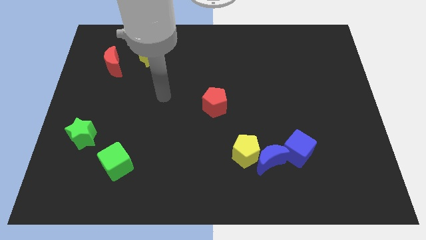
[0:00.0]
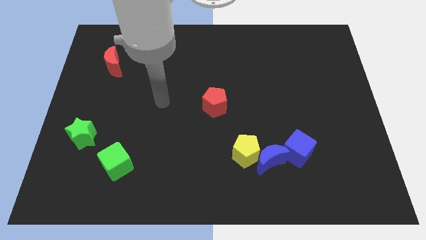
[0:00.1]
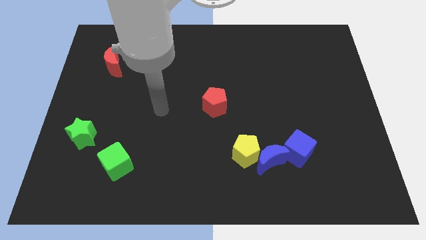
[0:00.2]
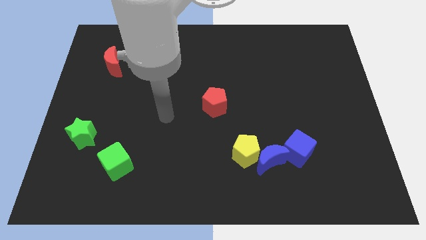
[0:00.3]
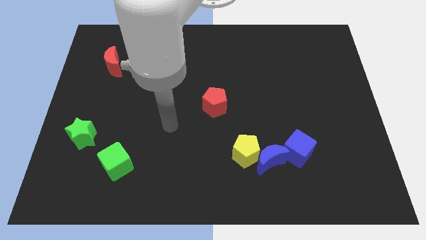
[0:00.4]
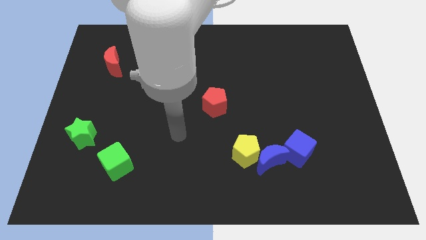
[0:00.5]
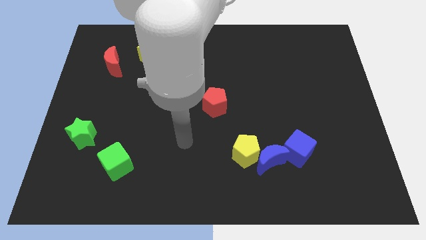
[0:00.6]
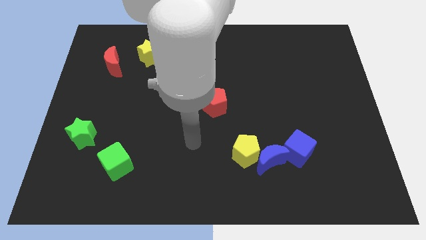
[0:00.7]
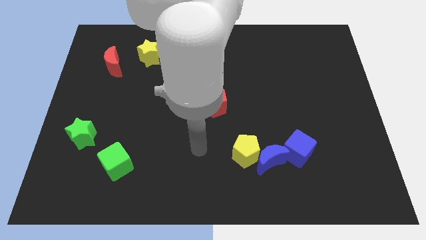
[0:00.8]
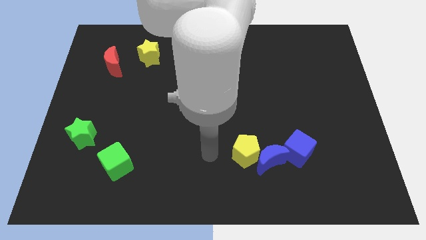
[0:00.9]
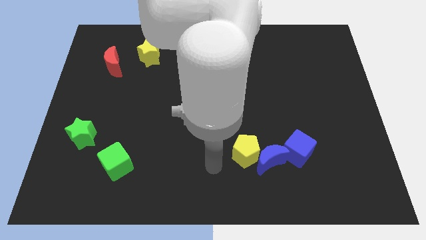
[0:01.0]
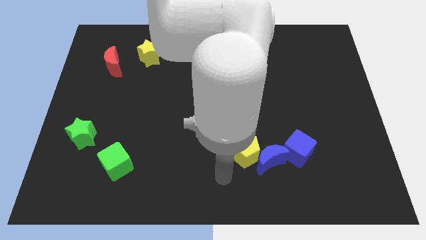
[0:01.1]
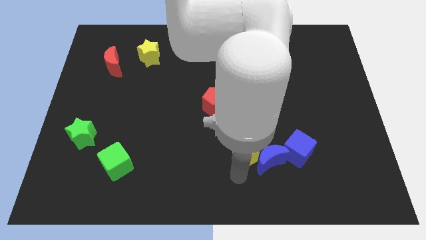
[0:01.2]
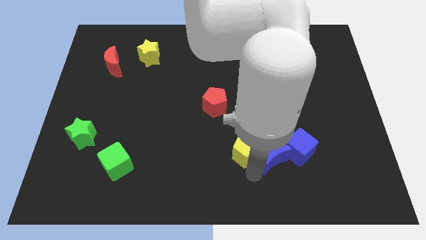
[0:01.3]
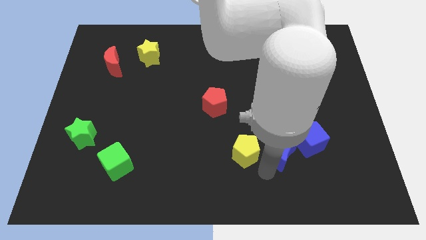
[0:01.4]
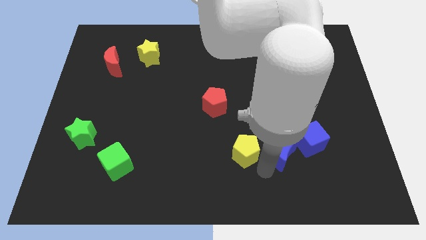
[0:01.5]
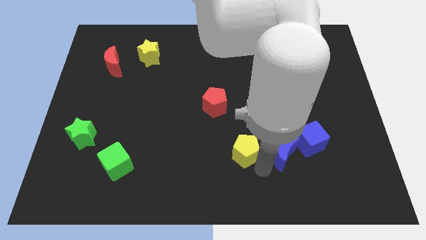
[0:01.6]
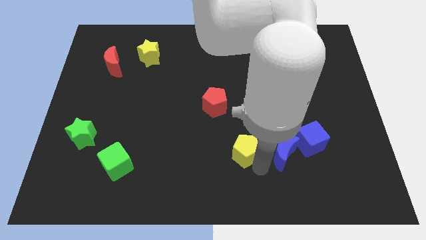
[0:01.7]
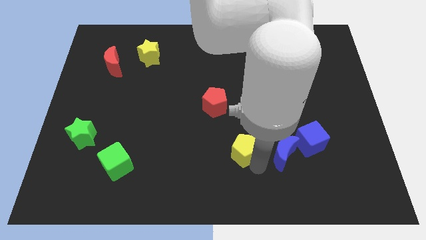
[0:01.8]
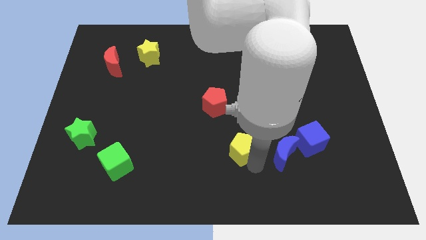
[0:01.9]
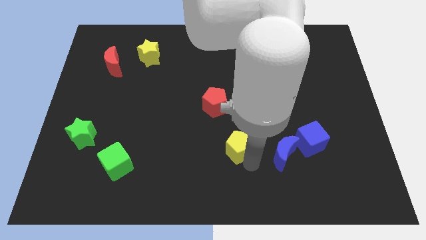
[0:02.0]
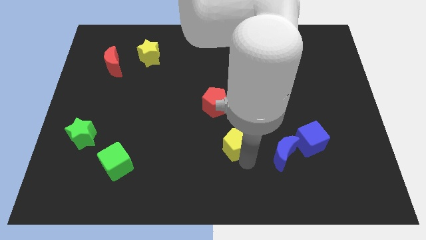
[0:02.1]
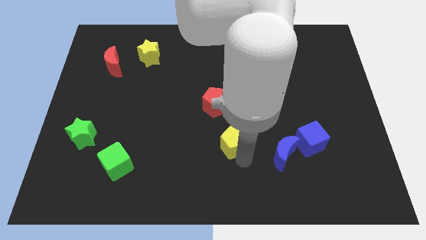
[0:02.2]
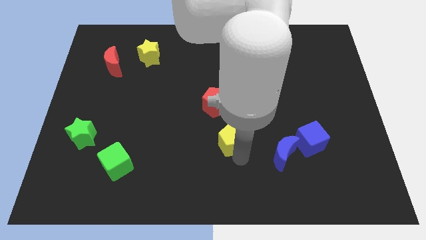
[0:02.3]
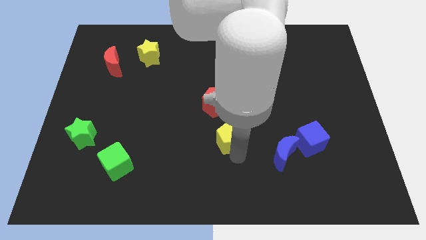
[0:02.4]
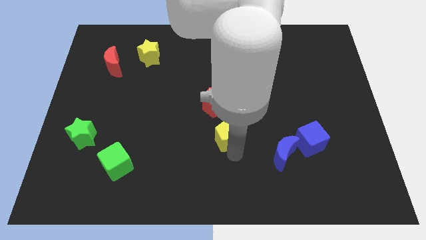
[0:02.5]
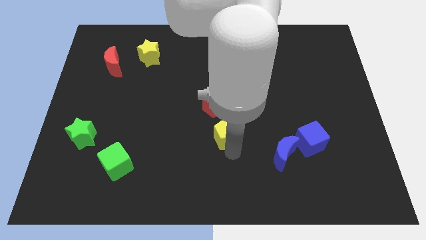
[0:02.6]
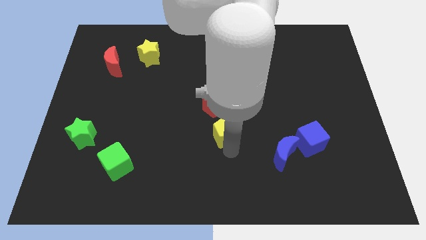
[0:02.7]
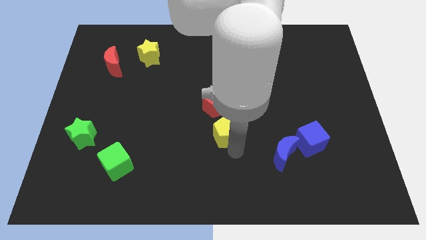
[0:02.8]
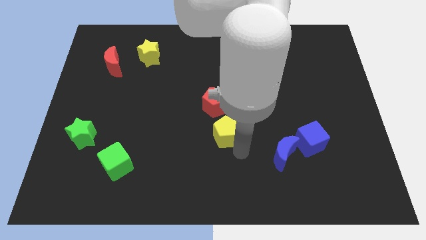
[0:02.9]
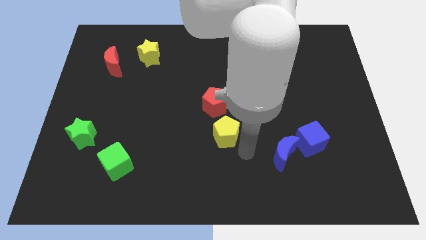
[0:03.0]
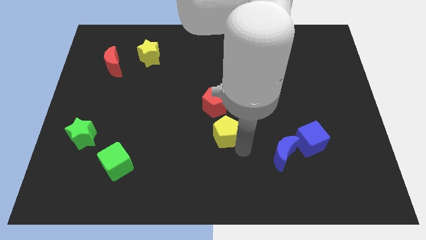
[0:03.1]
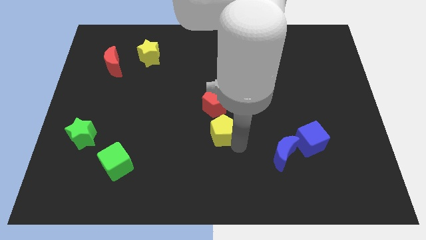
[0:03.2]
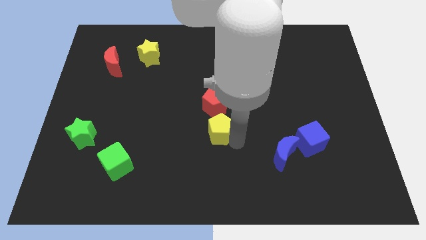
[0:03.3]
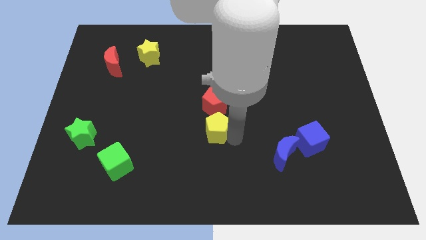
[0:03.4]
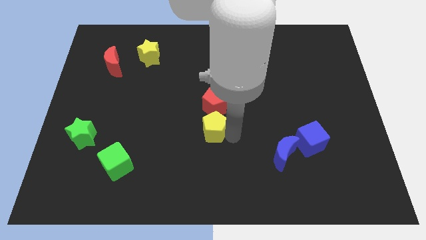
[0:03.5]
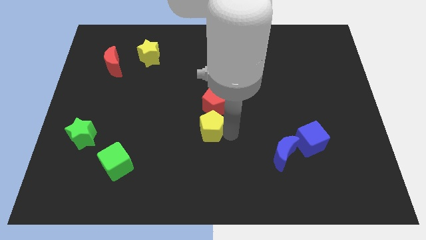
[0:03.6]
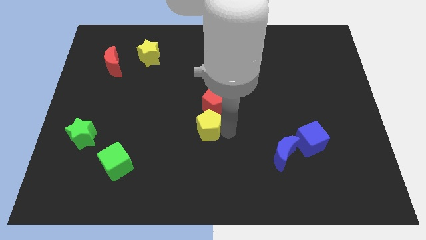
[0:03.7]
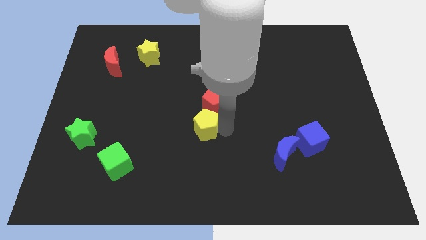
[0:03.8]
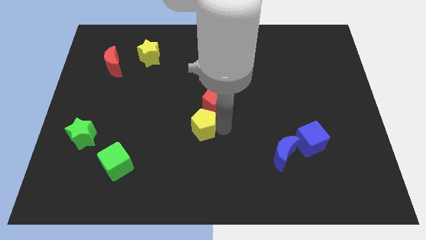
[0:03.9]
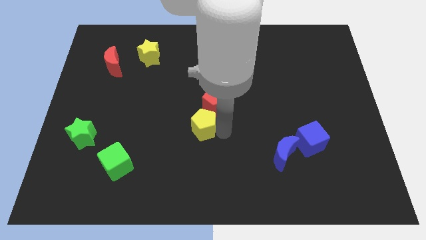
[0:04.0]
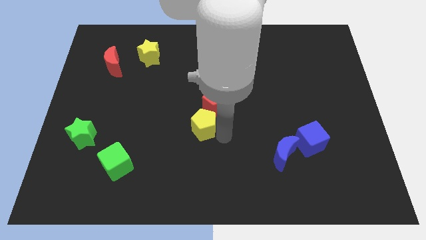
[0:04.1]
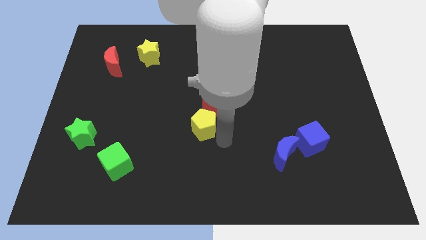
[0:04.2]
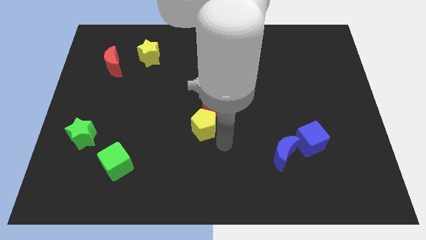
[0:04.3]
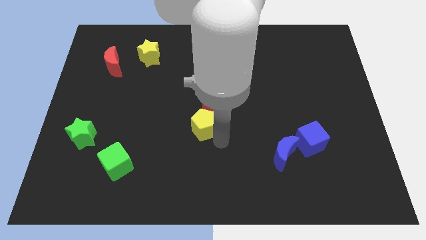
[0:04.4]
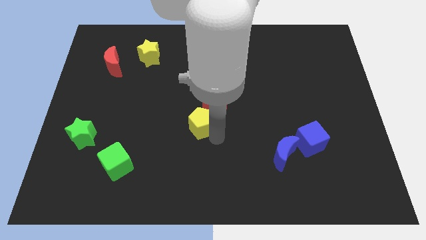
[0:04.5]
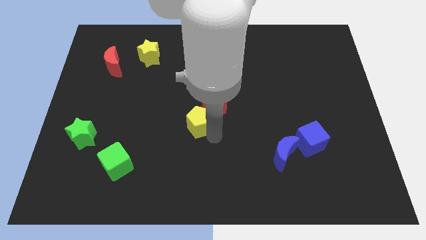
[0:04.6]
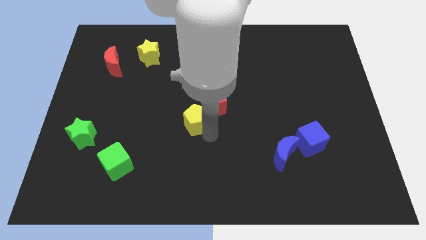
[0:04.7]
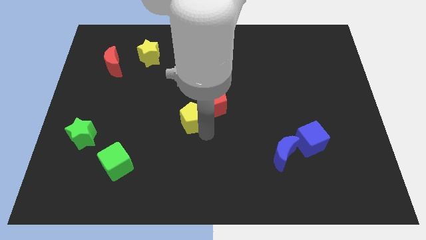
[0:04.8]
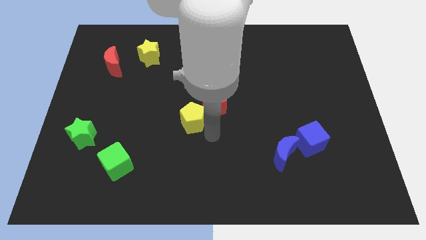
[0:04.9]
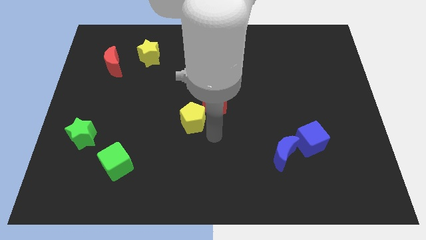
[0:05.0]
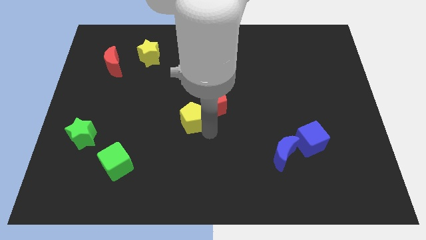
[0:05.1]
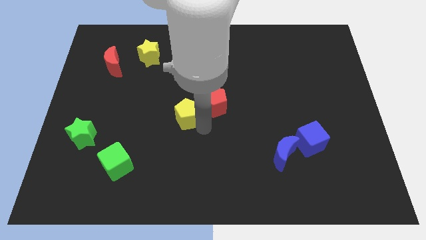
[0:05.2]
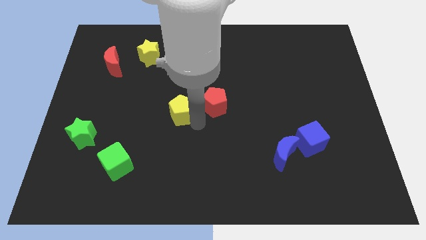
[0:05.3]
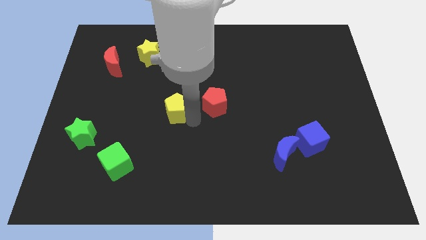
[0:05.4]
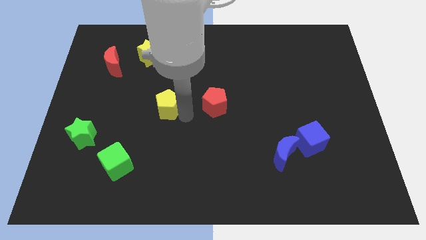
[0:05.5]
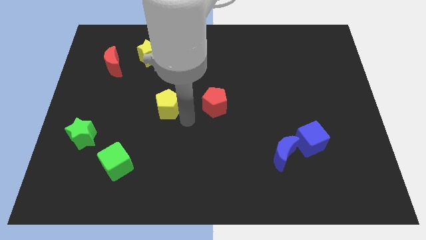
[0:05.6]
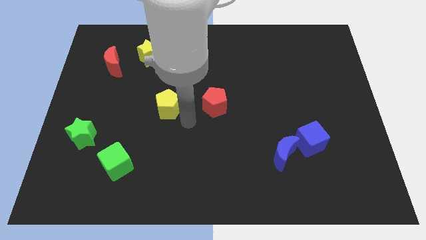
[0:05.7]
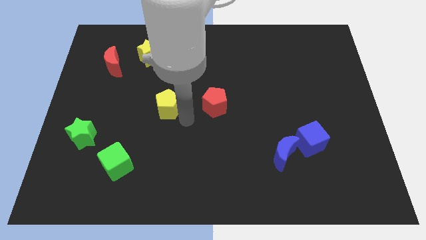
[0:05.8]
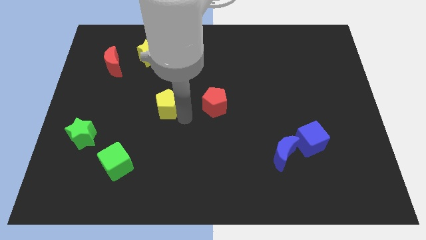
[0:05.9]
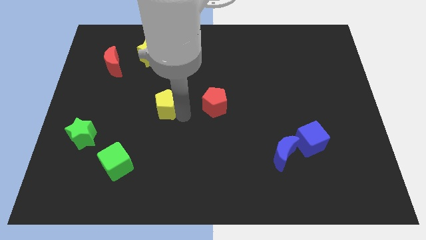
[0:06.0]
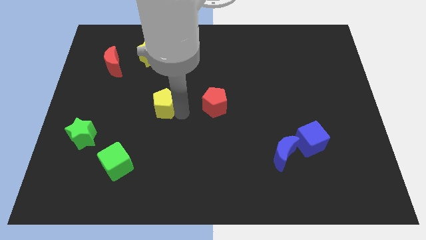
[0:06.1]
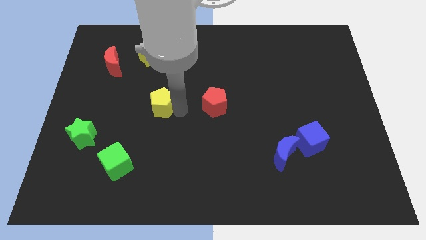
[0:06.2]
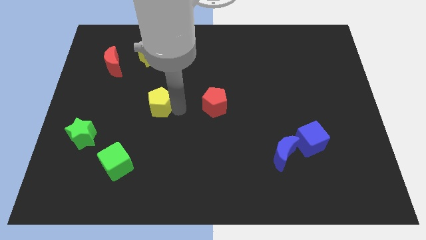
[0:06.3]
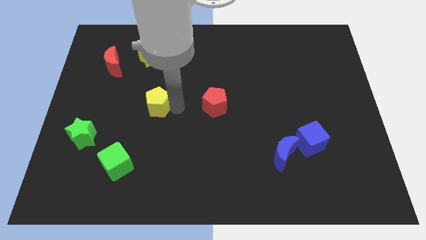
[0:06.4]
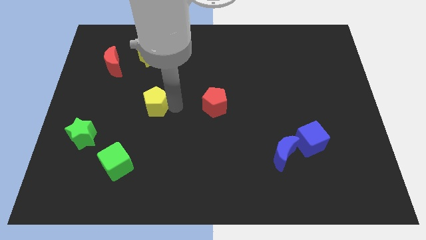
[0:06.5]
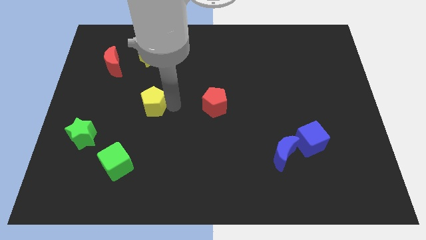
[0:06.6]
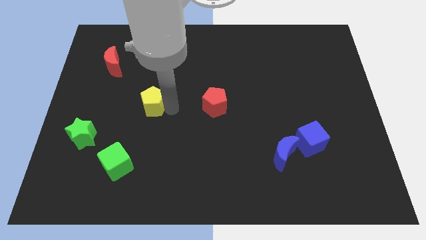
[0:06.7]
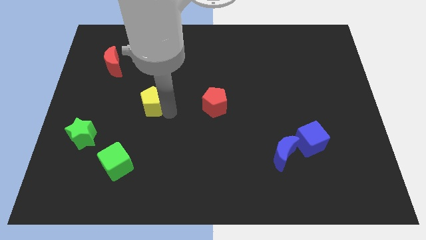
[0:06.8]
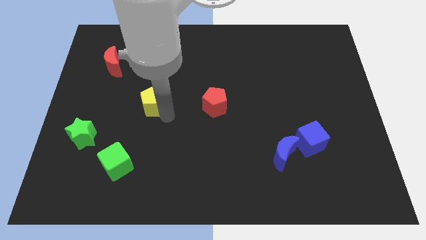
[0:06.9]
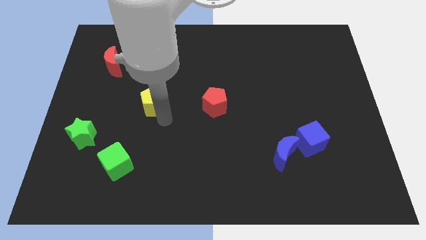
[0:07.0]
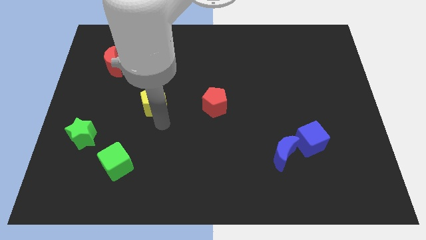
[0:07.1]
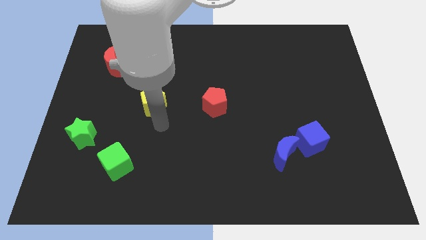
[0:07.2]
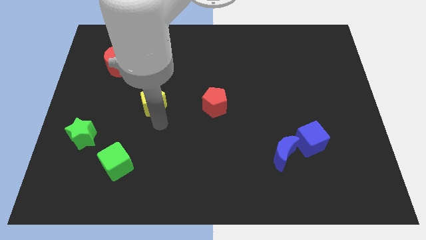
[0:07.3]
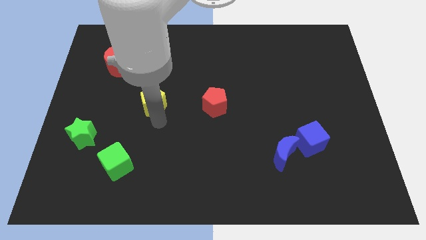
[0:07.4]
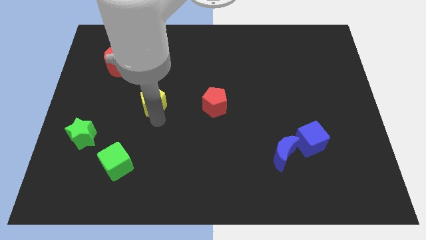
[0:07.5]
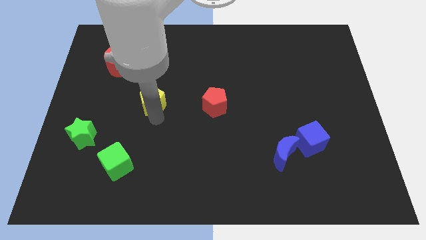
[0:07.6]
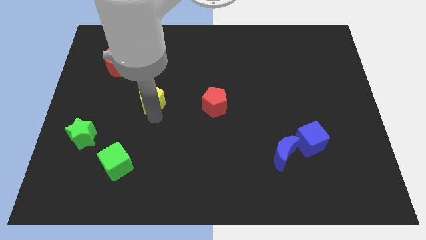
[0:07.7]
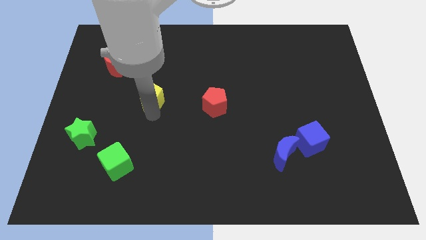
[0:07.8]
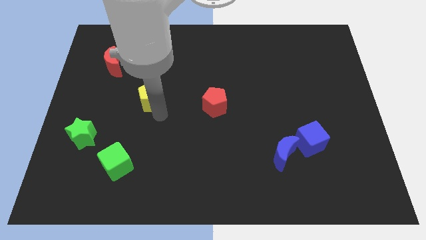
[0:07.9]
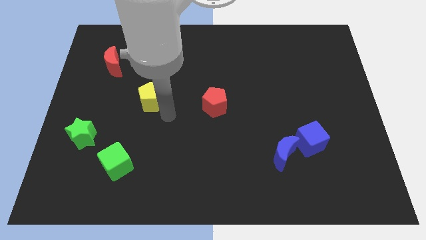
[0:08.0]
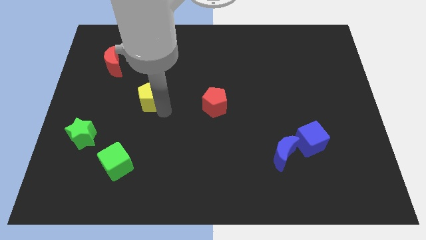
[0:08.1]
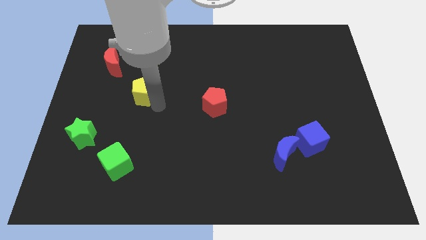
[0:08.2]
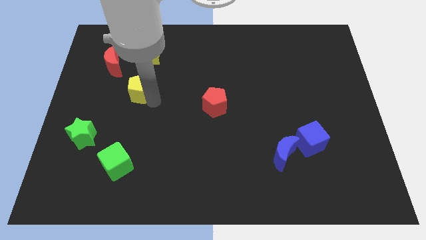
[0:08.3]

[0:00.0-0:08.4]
put the yellow pentagon to the bottom right side of the red moon
